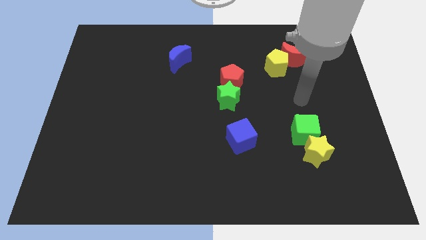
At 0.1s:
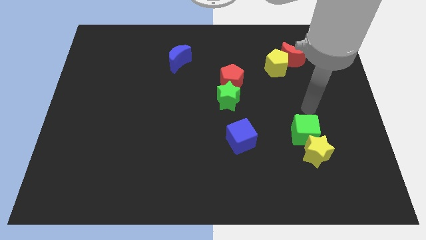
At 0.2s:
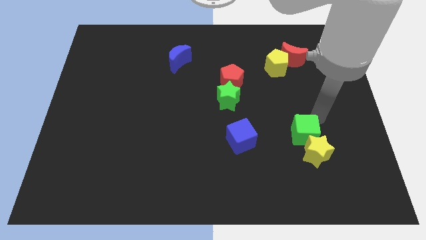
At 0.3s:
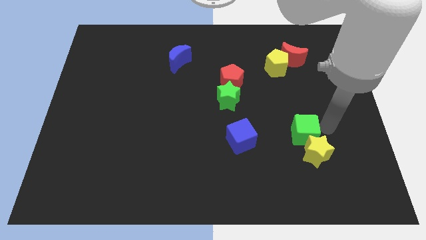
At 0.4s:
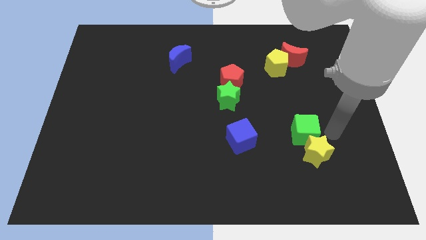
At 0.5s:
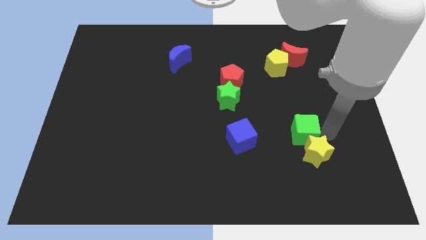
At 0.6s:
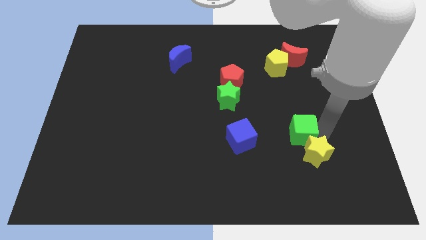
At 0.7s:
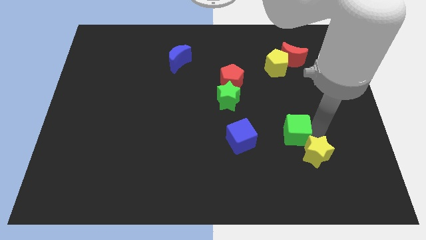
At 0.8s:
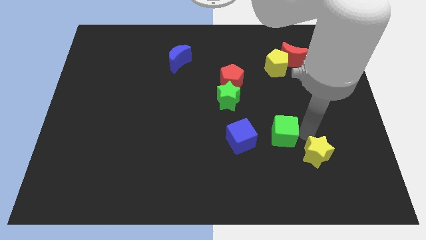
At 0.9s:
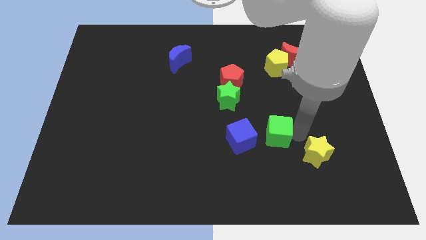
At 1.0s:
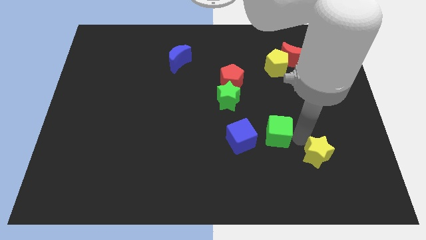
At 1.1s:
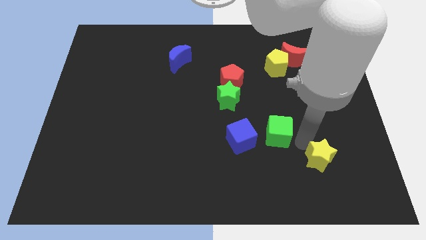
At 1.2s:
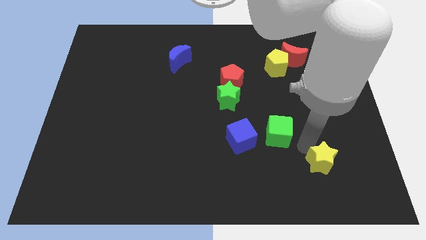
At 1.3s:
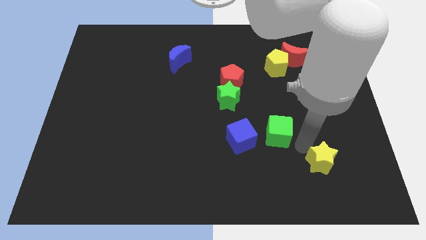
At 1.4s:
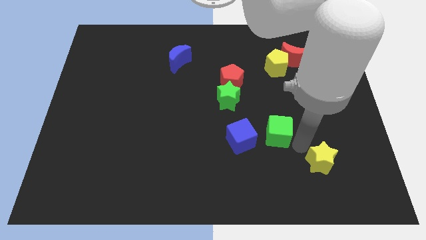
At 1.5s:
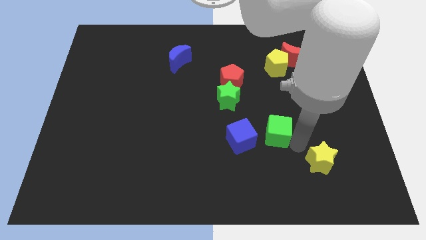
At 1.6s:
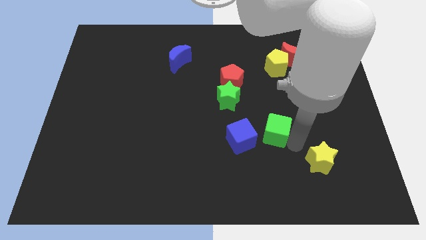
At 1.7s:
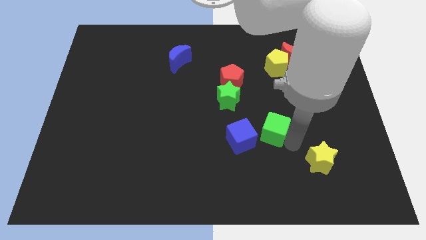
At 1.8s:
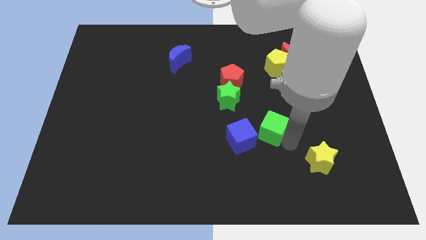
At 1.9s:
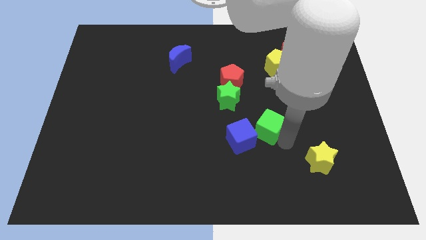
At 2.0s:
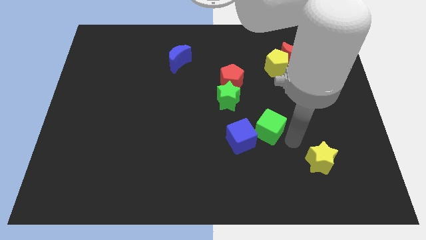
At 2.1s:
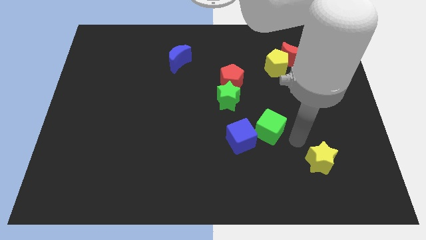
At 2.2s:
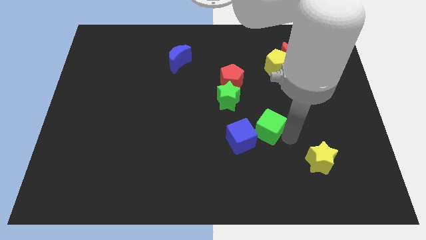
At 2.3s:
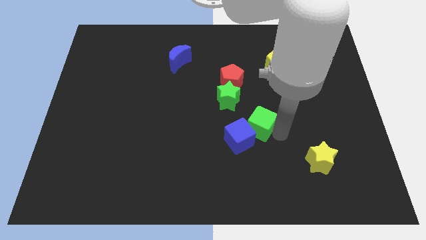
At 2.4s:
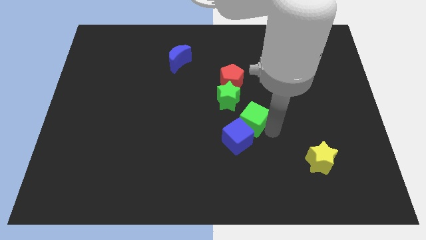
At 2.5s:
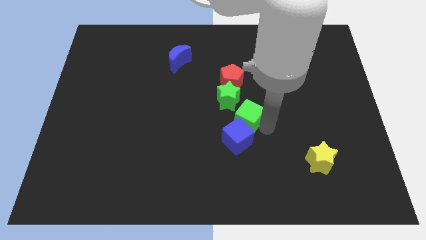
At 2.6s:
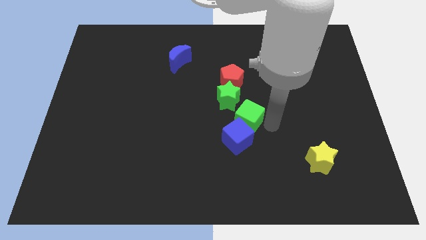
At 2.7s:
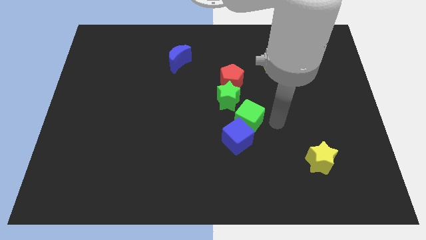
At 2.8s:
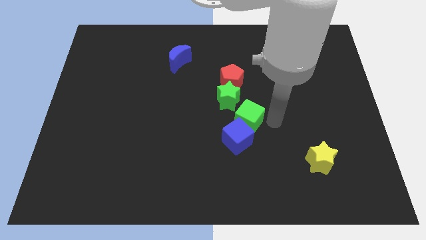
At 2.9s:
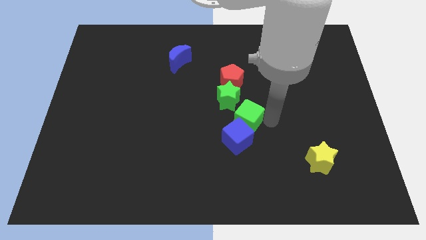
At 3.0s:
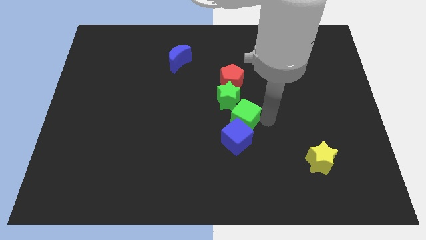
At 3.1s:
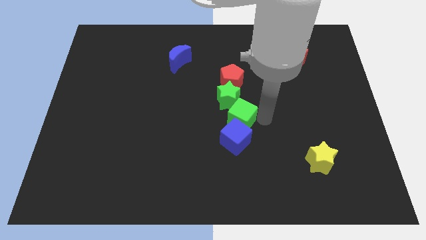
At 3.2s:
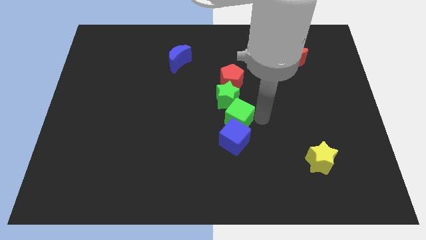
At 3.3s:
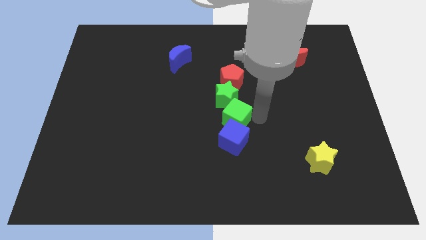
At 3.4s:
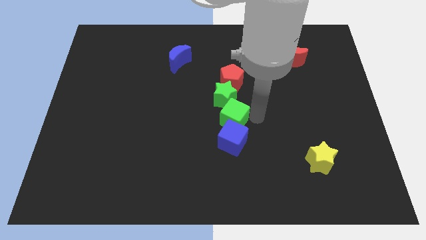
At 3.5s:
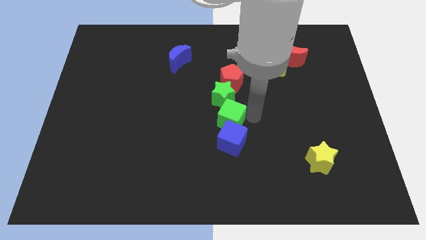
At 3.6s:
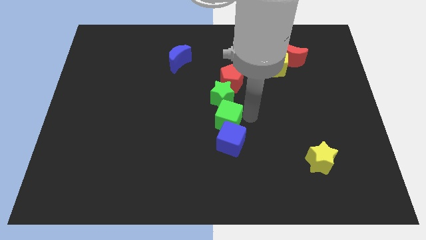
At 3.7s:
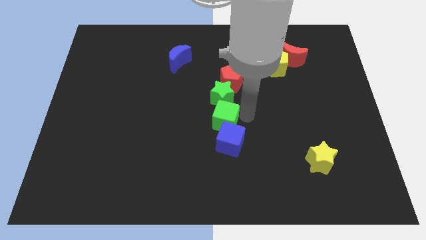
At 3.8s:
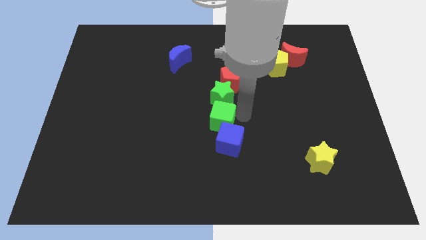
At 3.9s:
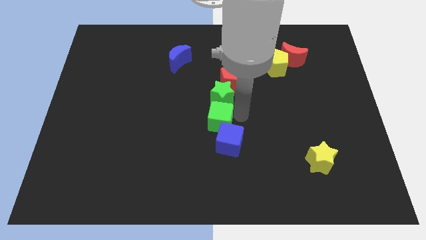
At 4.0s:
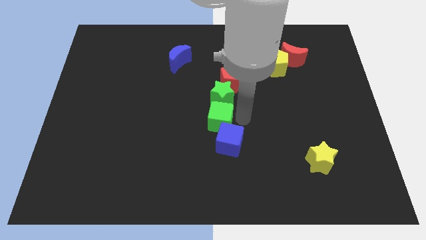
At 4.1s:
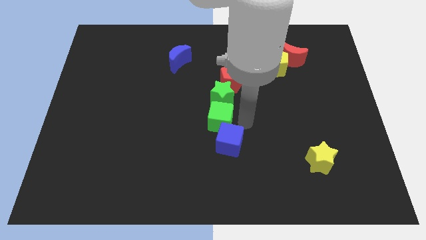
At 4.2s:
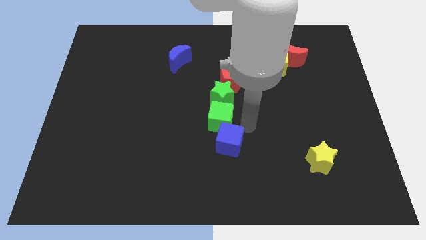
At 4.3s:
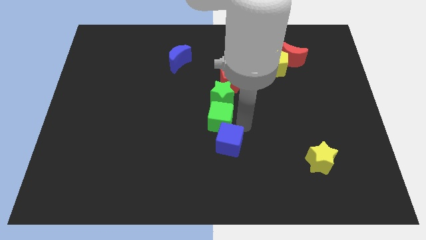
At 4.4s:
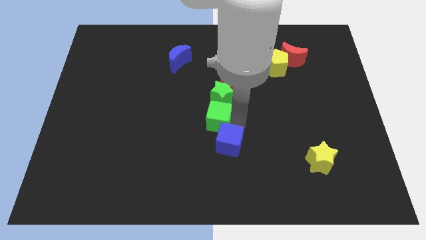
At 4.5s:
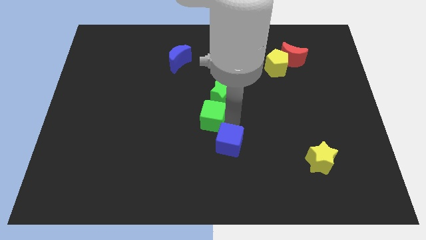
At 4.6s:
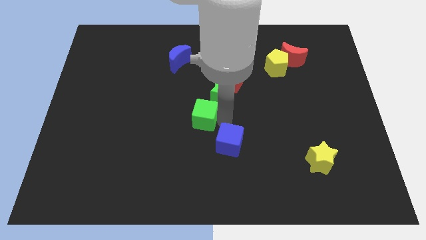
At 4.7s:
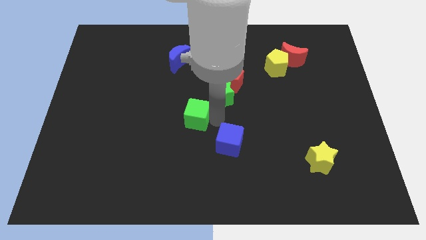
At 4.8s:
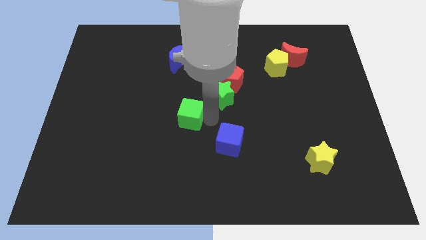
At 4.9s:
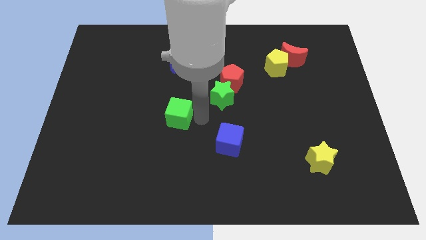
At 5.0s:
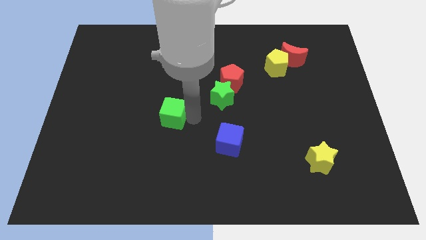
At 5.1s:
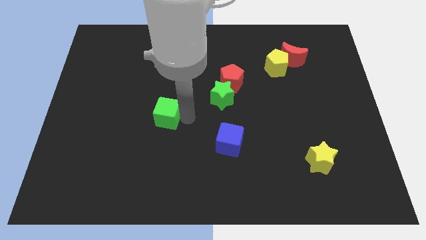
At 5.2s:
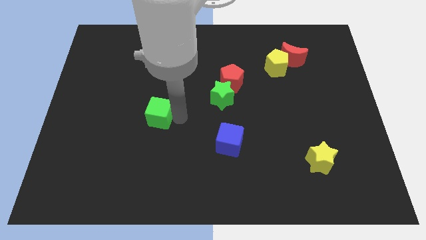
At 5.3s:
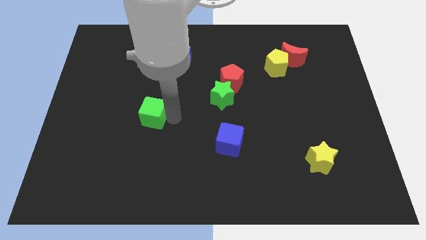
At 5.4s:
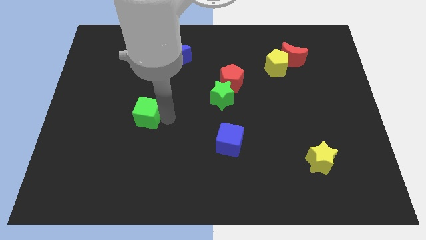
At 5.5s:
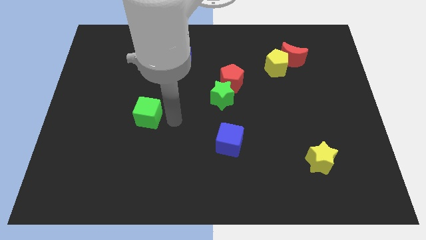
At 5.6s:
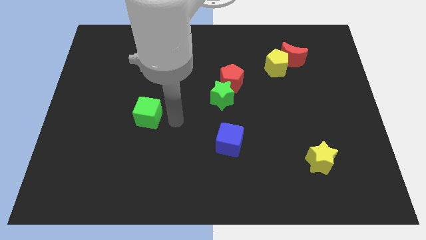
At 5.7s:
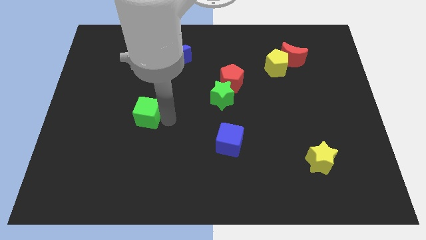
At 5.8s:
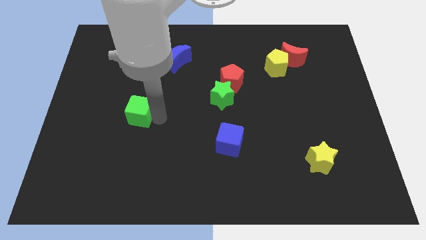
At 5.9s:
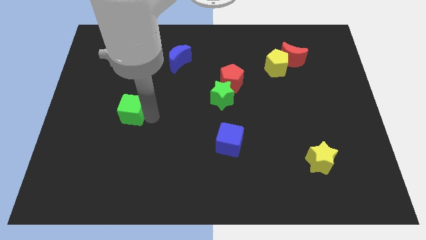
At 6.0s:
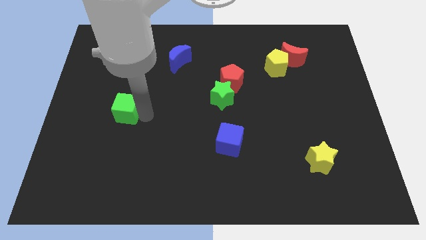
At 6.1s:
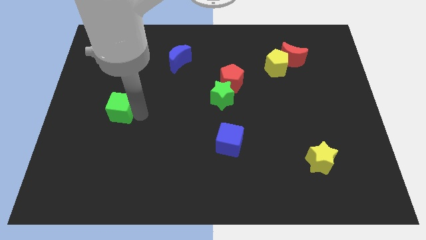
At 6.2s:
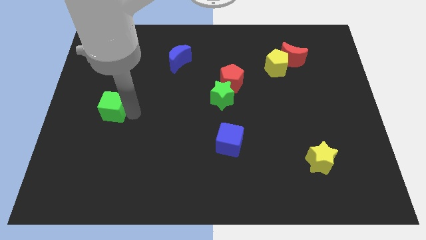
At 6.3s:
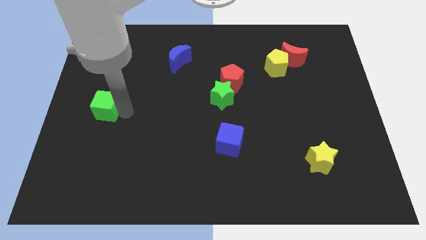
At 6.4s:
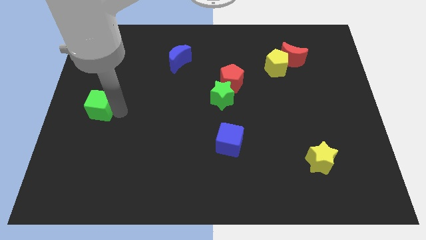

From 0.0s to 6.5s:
slide the green cube to the left side

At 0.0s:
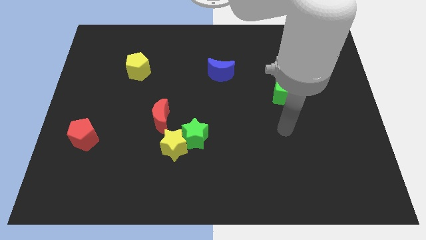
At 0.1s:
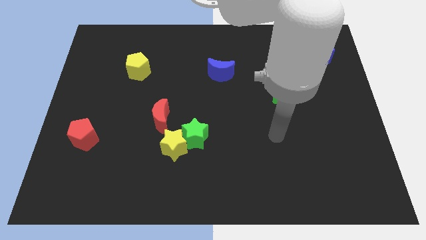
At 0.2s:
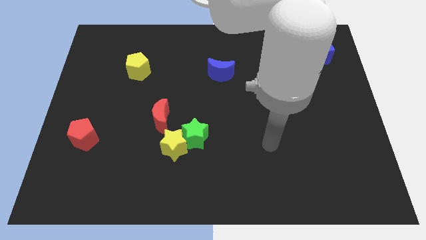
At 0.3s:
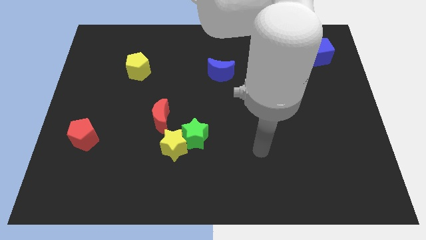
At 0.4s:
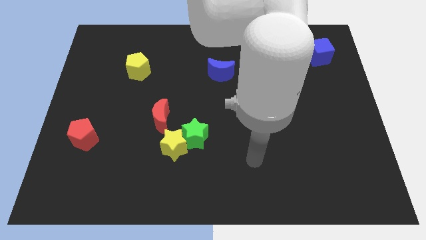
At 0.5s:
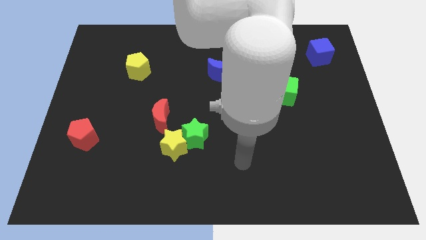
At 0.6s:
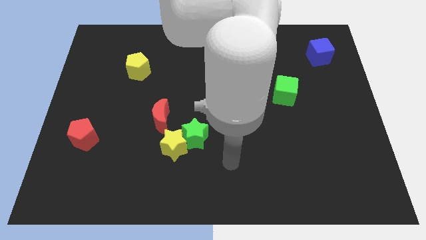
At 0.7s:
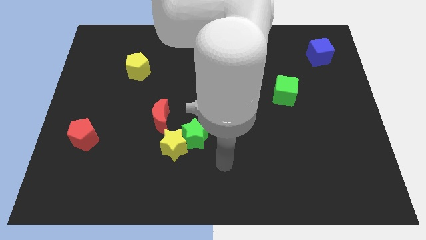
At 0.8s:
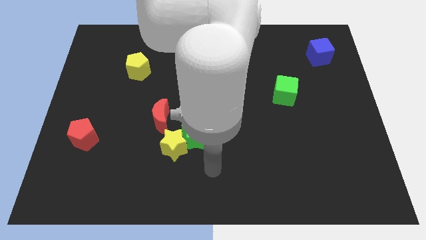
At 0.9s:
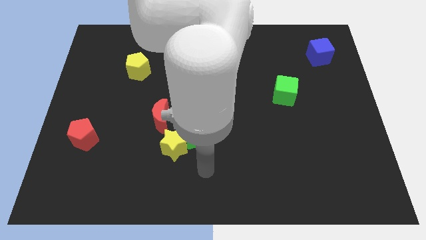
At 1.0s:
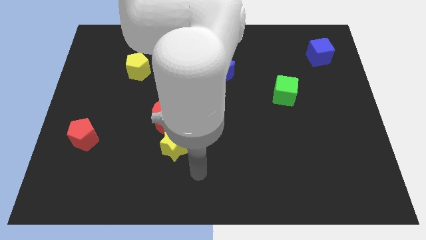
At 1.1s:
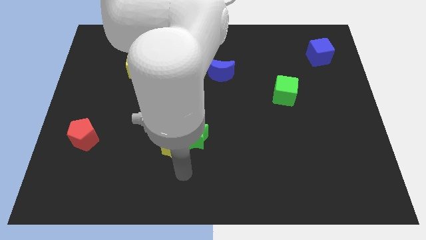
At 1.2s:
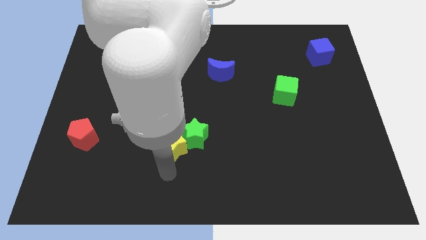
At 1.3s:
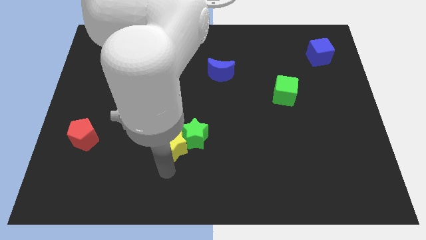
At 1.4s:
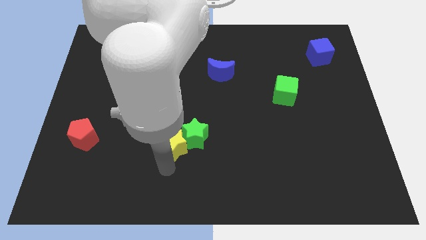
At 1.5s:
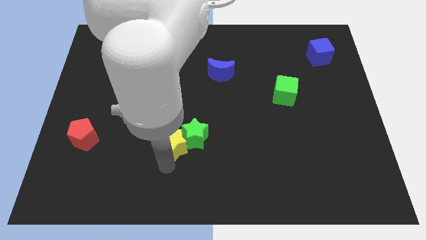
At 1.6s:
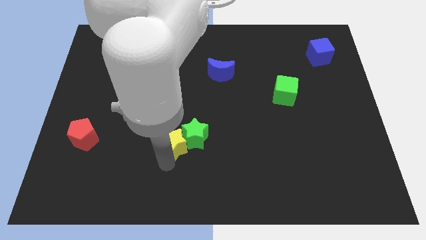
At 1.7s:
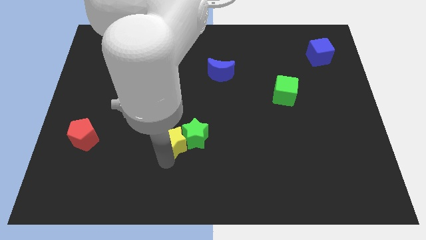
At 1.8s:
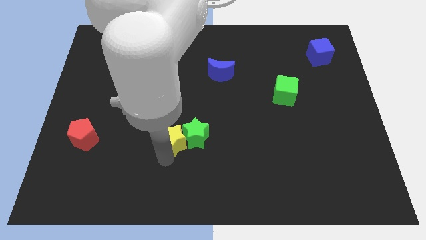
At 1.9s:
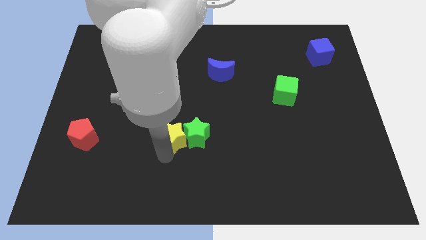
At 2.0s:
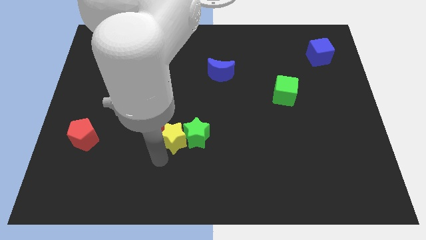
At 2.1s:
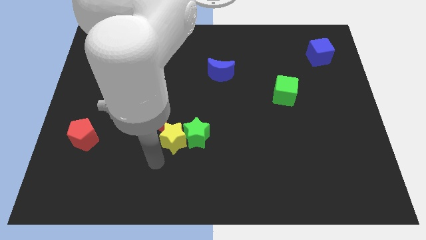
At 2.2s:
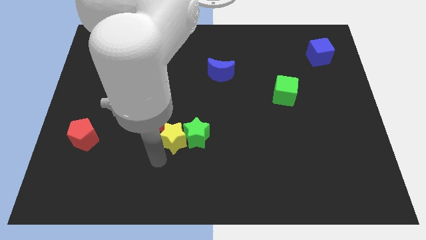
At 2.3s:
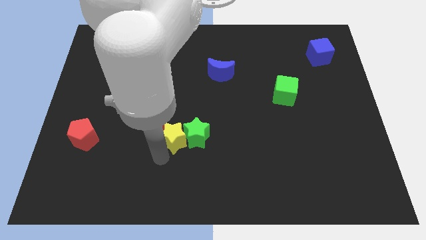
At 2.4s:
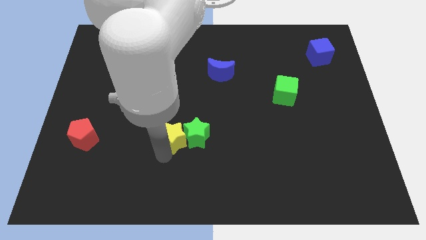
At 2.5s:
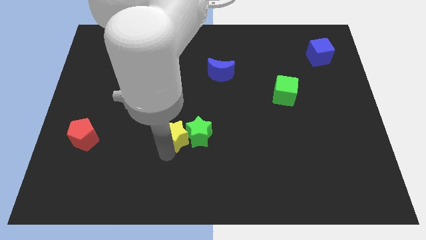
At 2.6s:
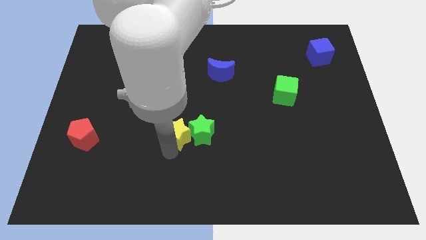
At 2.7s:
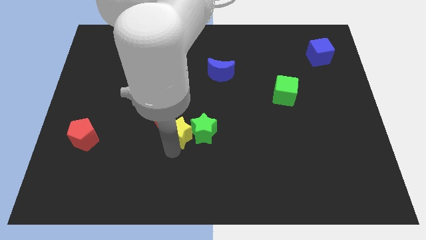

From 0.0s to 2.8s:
push the yellow star to the center of the board
